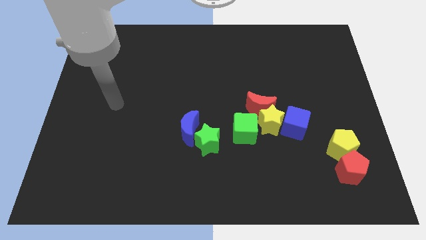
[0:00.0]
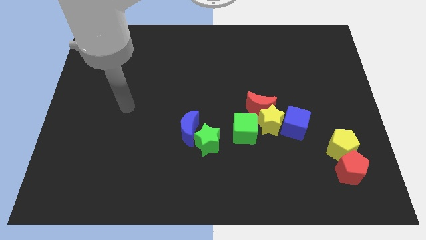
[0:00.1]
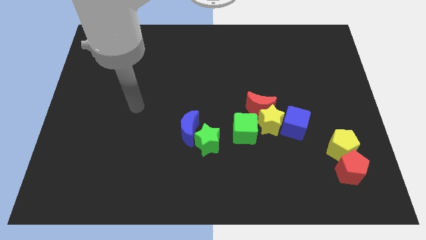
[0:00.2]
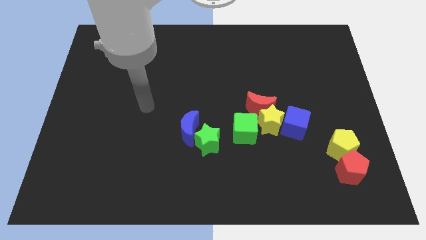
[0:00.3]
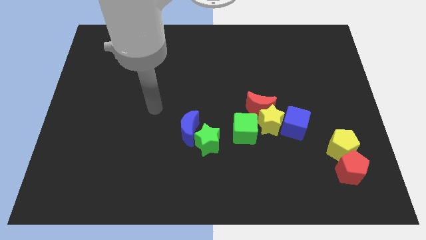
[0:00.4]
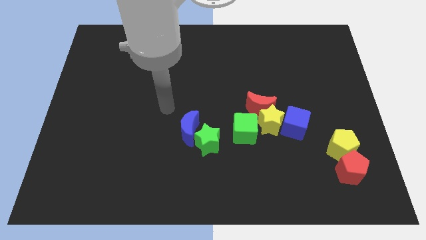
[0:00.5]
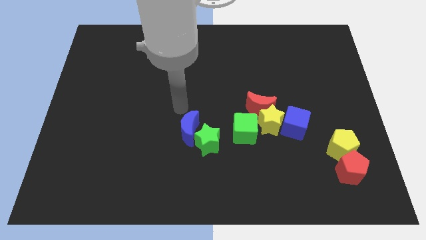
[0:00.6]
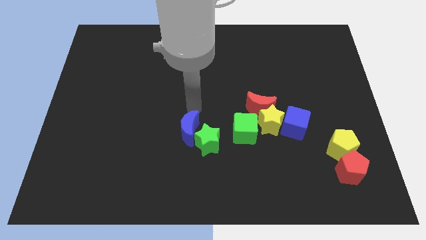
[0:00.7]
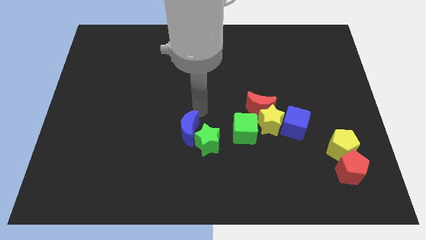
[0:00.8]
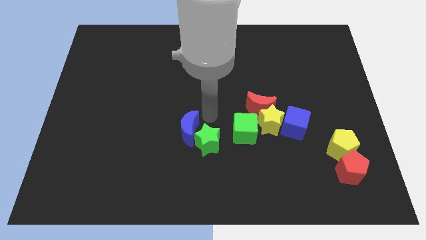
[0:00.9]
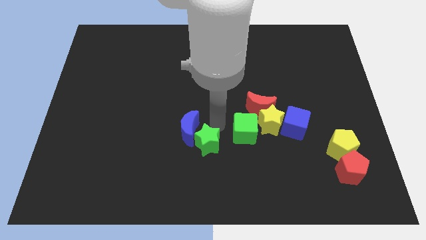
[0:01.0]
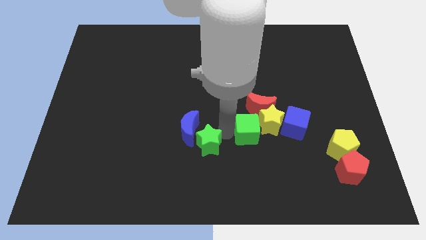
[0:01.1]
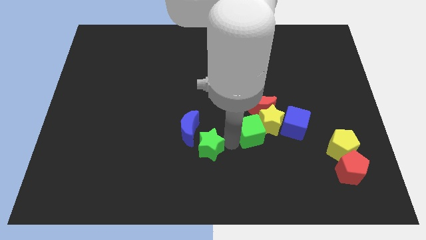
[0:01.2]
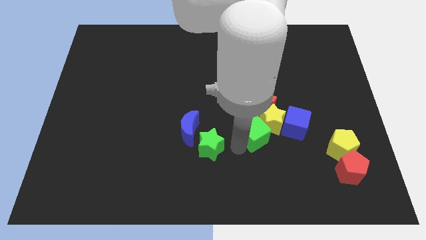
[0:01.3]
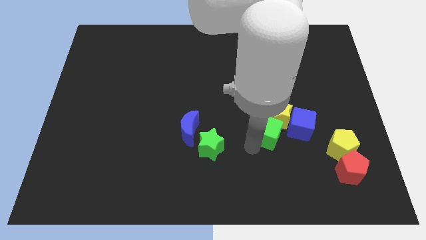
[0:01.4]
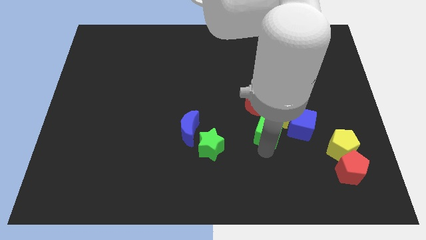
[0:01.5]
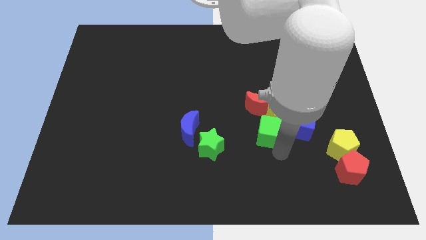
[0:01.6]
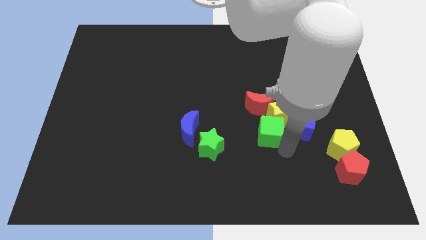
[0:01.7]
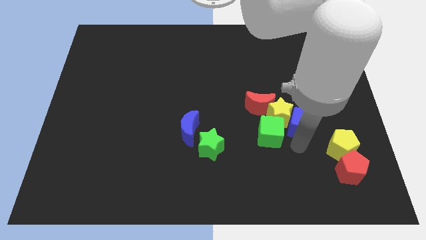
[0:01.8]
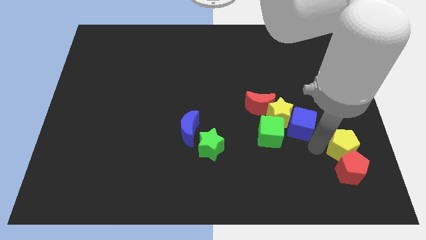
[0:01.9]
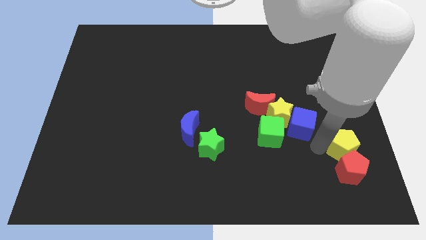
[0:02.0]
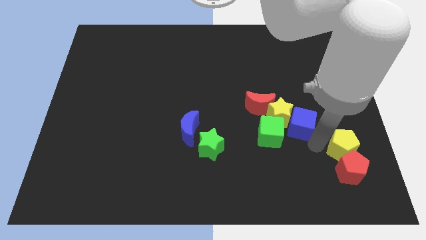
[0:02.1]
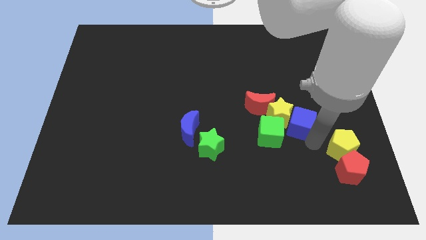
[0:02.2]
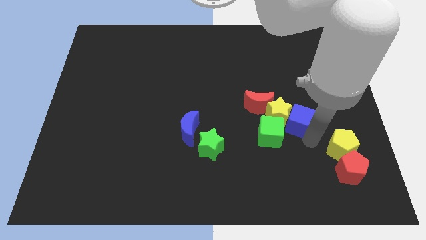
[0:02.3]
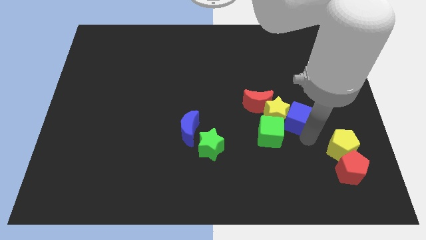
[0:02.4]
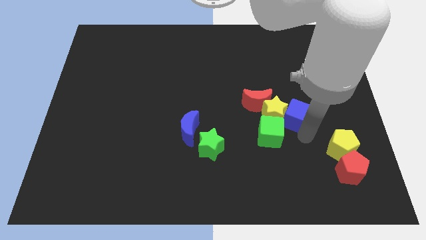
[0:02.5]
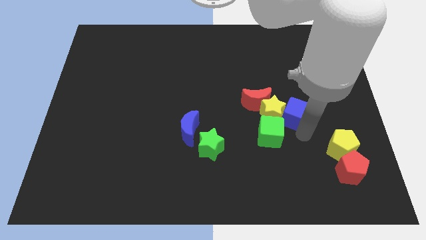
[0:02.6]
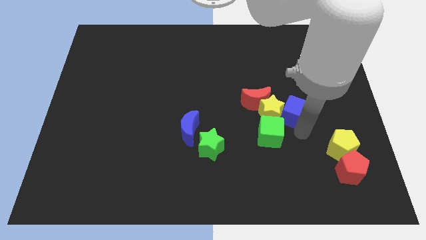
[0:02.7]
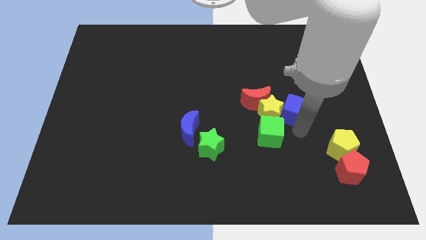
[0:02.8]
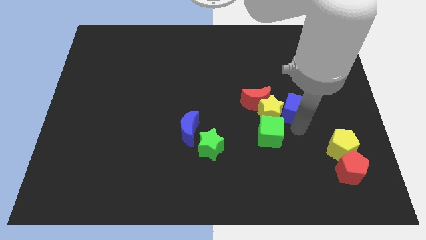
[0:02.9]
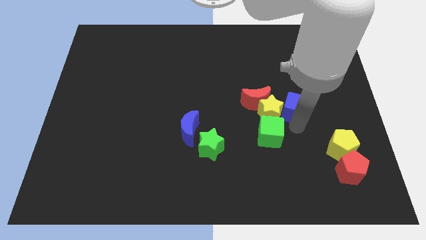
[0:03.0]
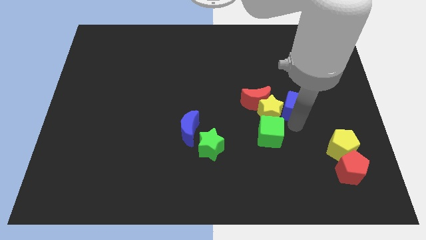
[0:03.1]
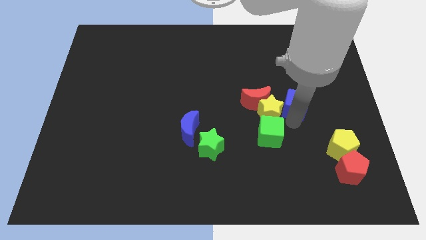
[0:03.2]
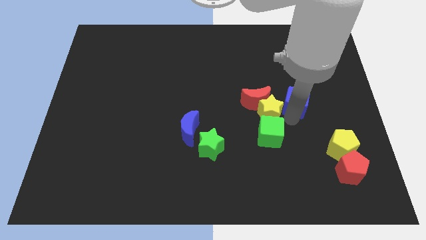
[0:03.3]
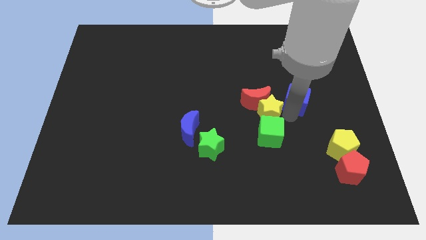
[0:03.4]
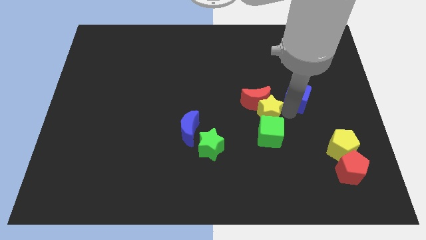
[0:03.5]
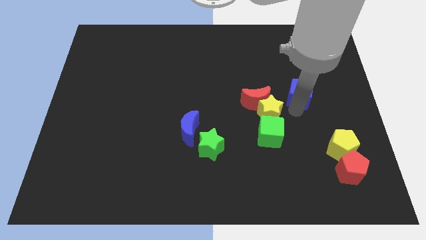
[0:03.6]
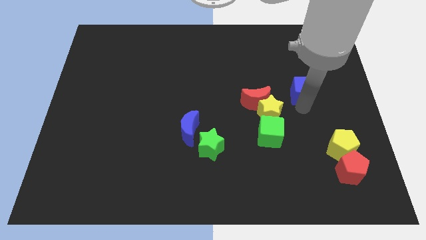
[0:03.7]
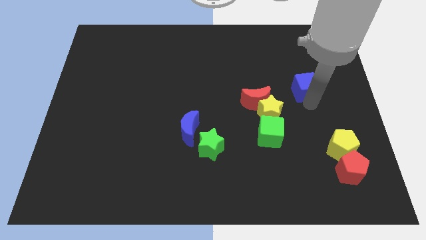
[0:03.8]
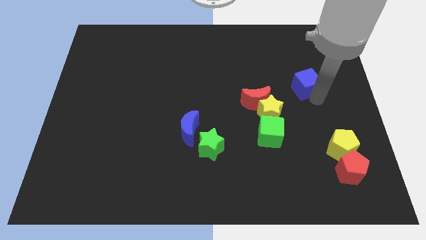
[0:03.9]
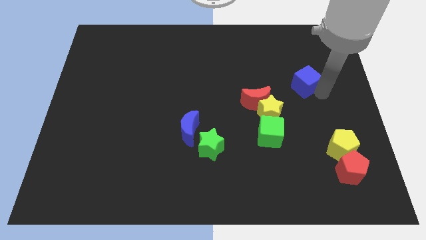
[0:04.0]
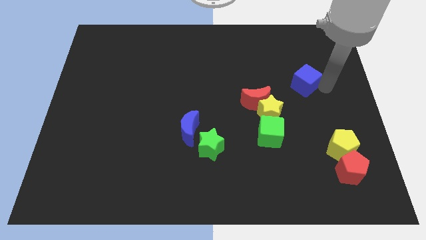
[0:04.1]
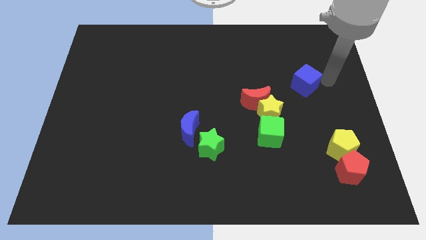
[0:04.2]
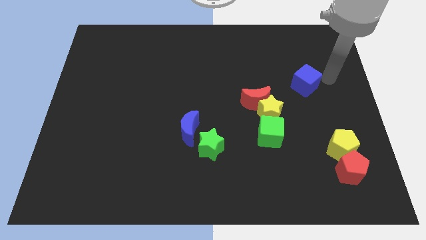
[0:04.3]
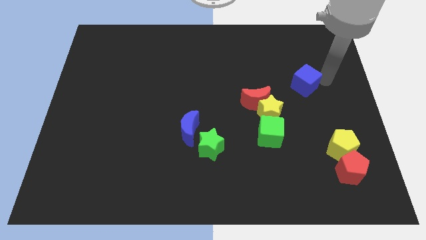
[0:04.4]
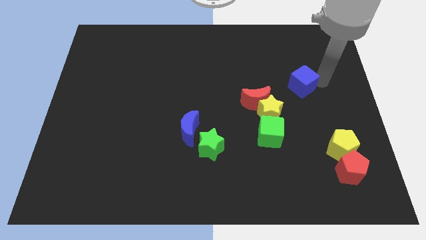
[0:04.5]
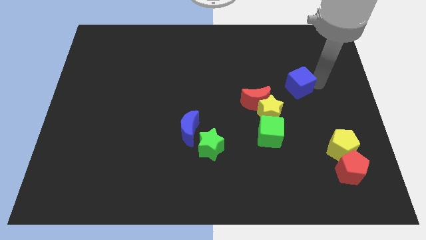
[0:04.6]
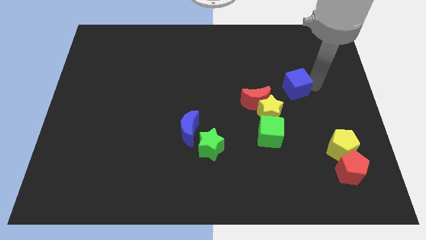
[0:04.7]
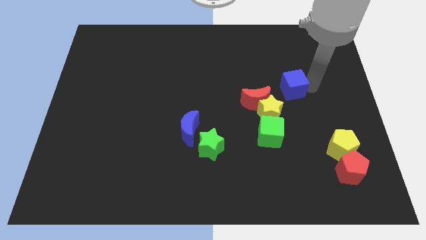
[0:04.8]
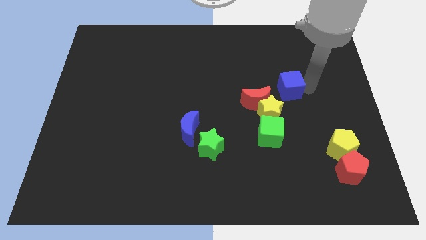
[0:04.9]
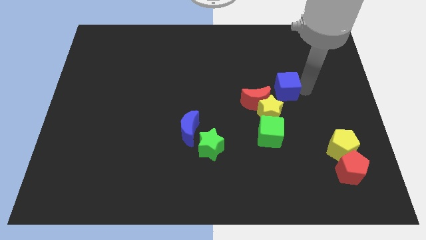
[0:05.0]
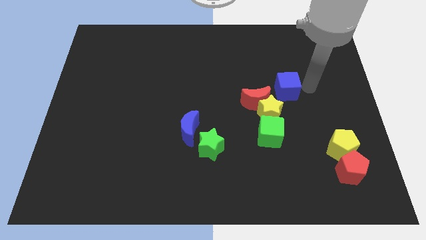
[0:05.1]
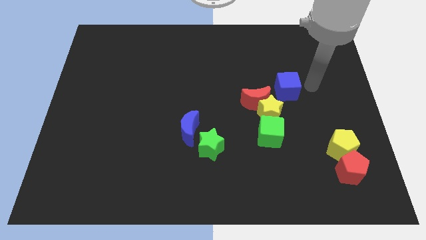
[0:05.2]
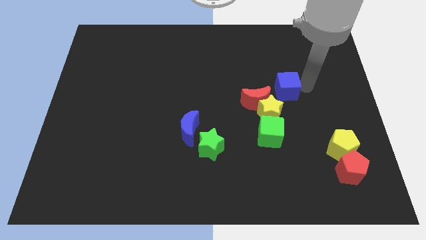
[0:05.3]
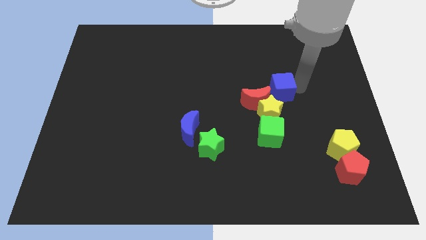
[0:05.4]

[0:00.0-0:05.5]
slightly move the blue cube upwards and to the left diagonally

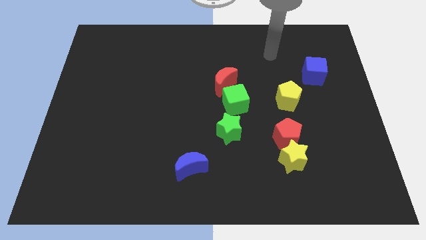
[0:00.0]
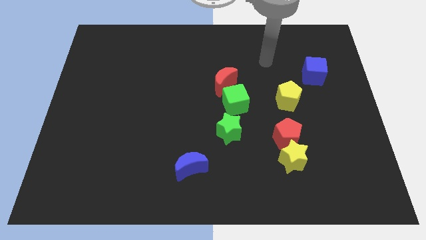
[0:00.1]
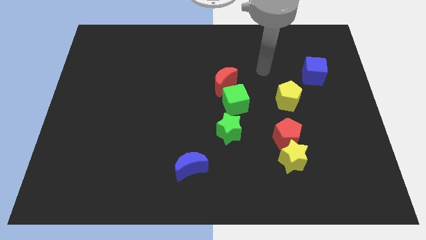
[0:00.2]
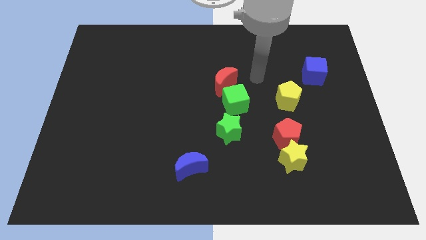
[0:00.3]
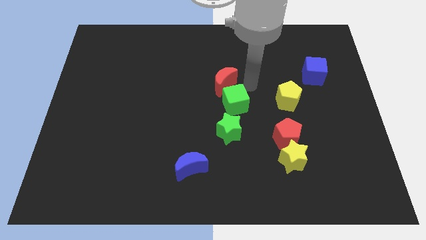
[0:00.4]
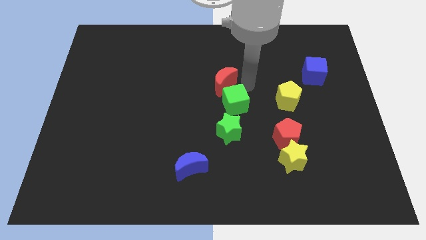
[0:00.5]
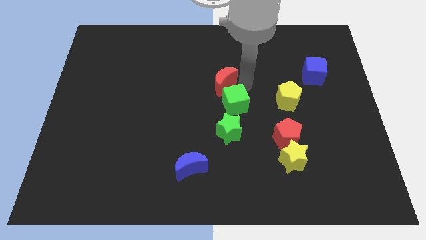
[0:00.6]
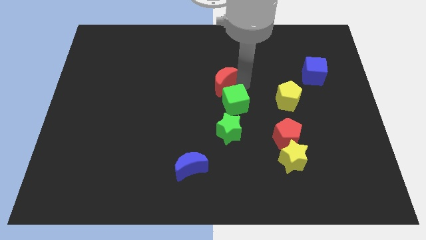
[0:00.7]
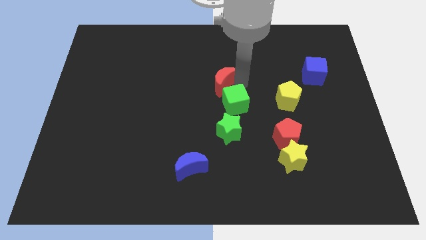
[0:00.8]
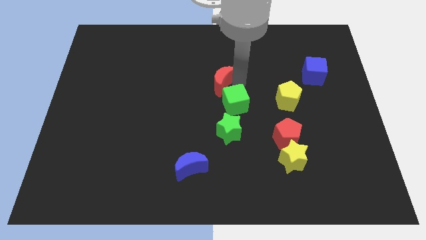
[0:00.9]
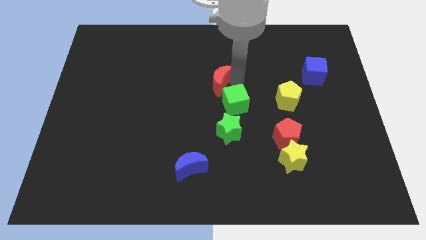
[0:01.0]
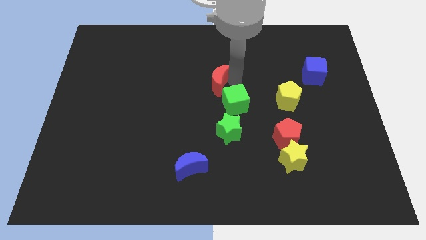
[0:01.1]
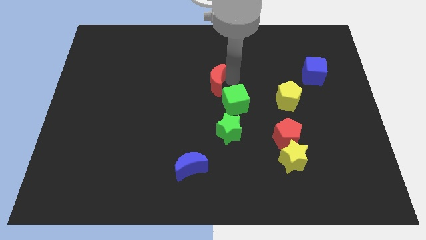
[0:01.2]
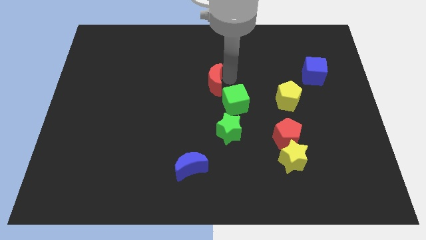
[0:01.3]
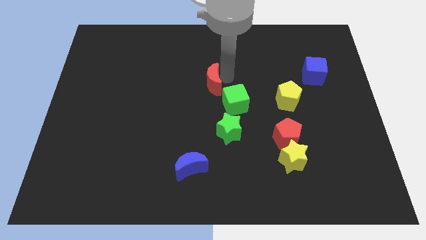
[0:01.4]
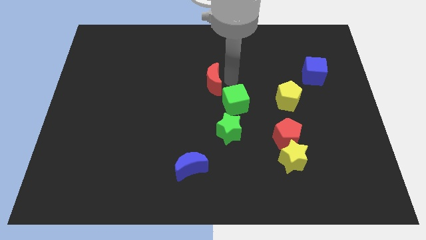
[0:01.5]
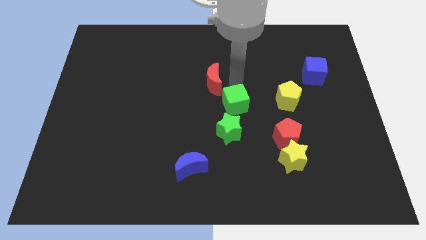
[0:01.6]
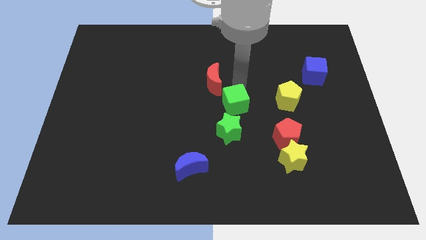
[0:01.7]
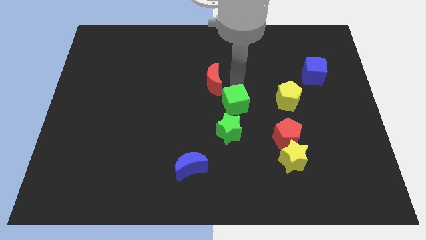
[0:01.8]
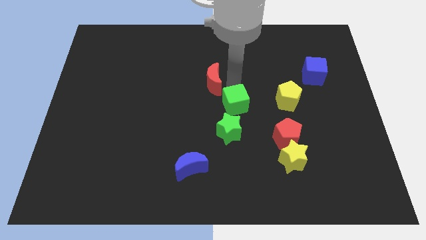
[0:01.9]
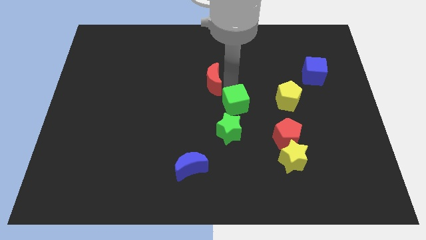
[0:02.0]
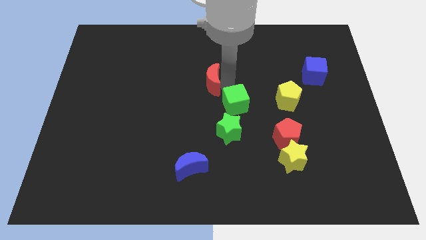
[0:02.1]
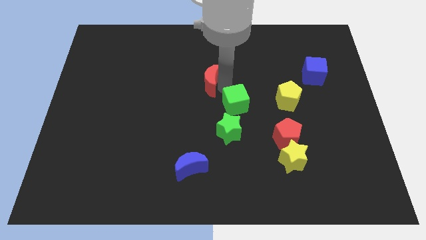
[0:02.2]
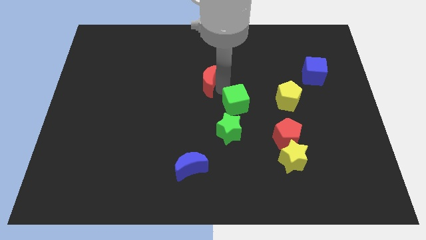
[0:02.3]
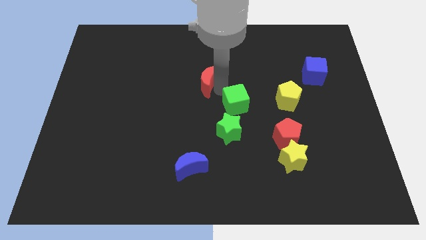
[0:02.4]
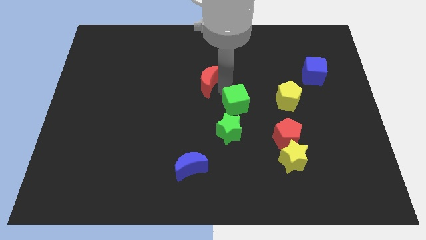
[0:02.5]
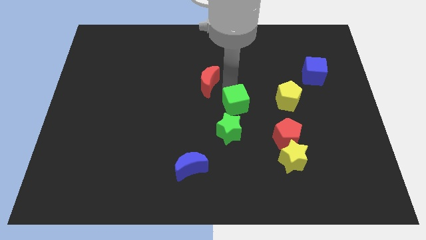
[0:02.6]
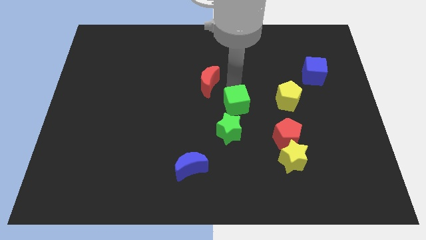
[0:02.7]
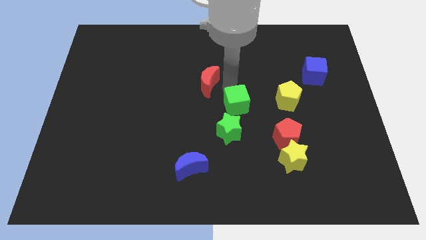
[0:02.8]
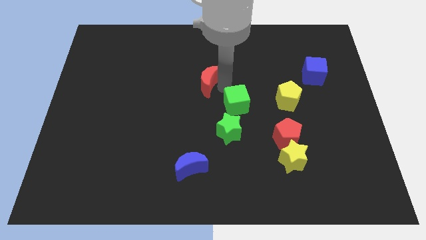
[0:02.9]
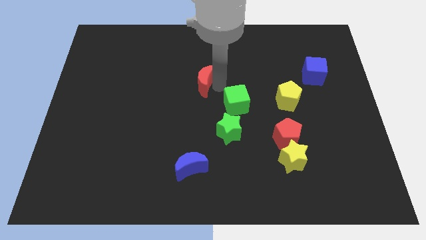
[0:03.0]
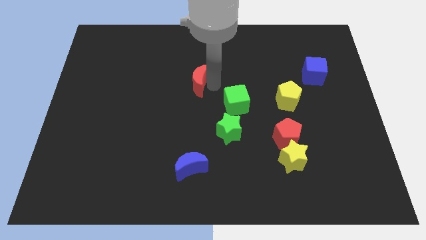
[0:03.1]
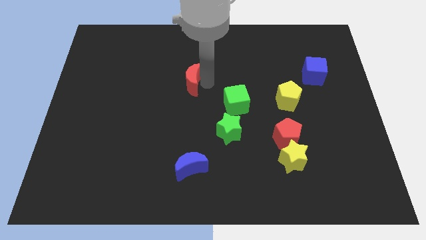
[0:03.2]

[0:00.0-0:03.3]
slide the red moon left a little

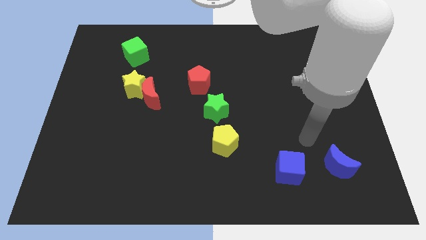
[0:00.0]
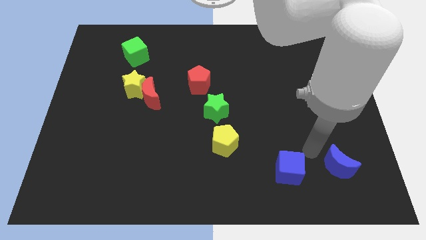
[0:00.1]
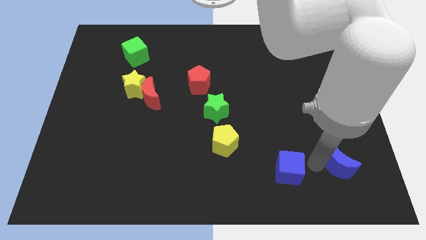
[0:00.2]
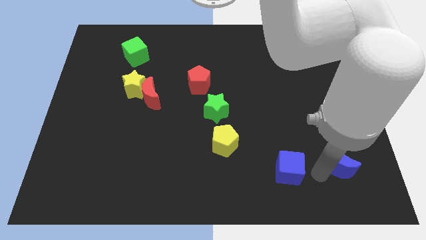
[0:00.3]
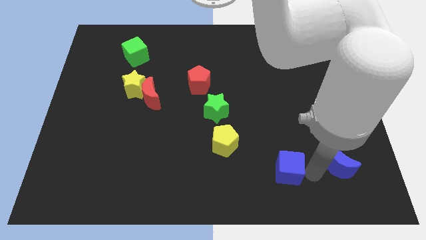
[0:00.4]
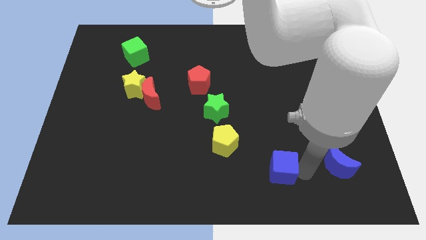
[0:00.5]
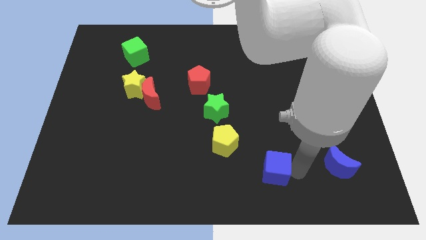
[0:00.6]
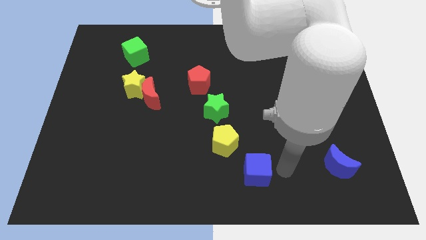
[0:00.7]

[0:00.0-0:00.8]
push the blue cube somewhat to the left
